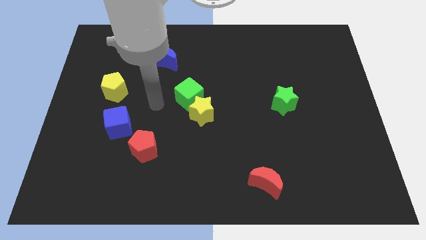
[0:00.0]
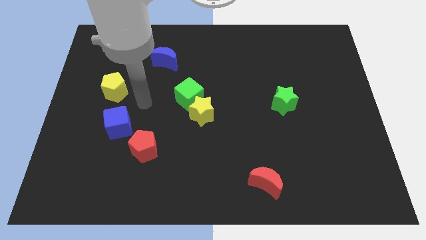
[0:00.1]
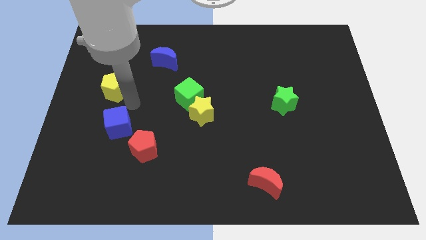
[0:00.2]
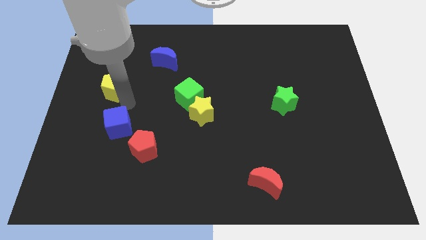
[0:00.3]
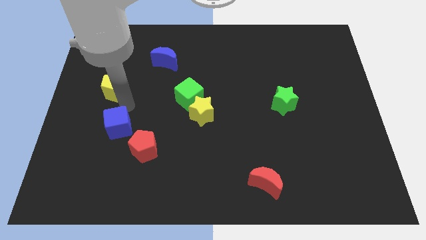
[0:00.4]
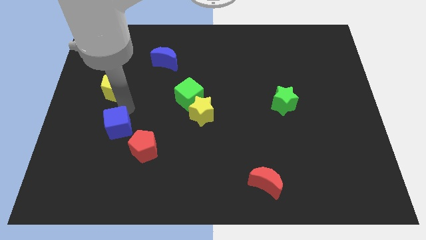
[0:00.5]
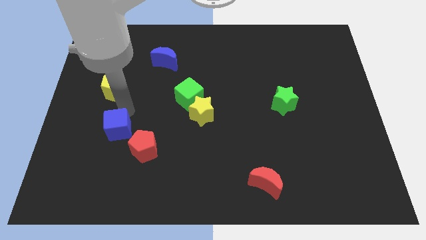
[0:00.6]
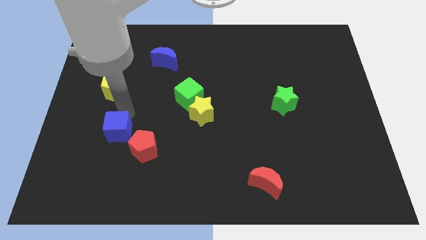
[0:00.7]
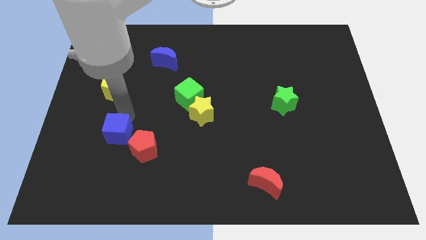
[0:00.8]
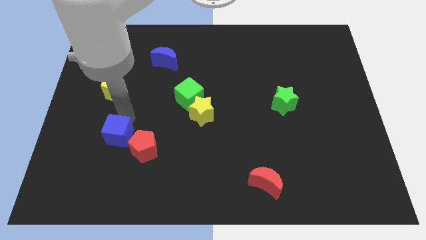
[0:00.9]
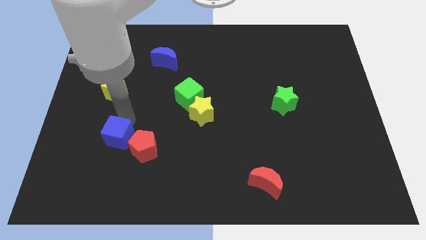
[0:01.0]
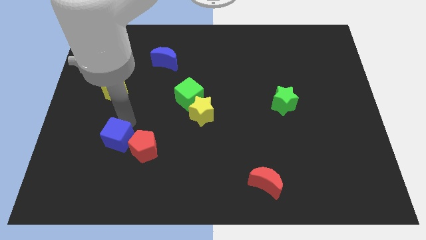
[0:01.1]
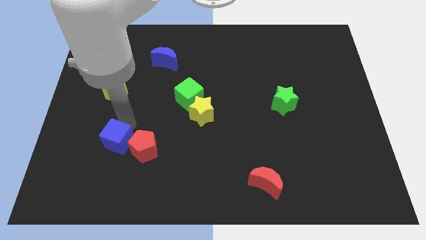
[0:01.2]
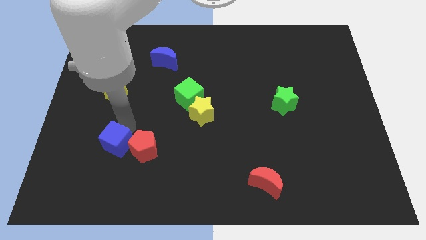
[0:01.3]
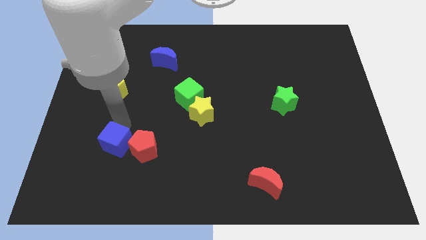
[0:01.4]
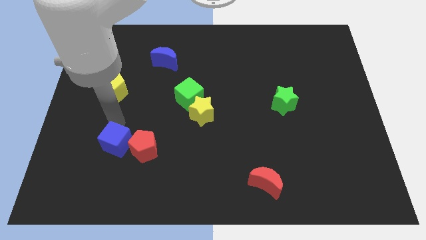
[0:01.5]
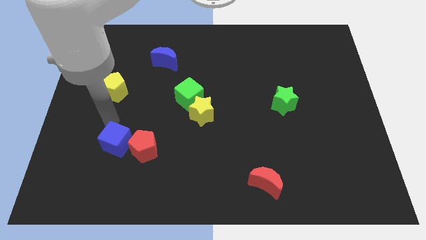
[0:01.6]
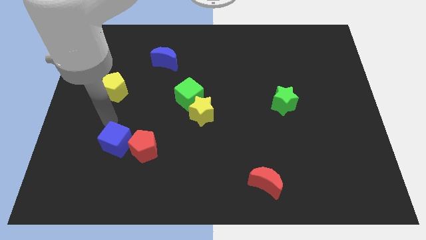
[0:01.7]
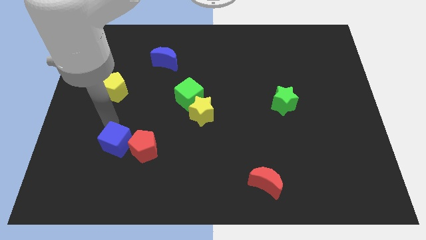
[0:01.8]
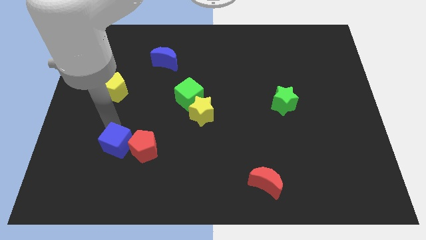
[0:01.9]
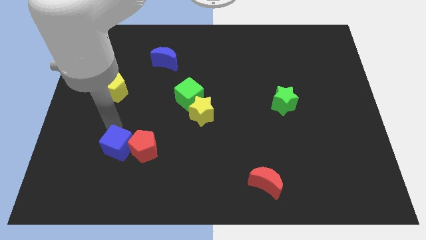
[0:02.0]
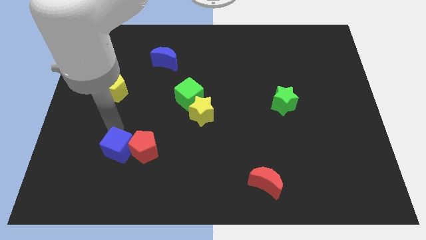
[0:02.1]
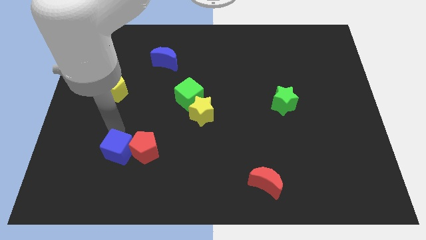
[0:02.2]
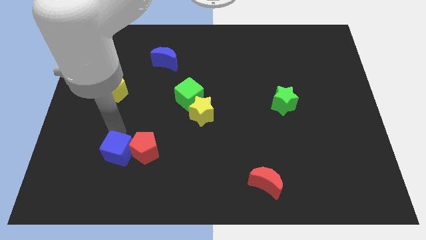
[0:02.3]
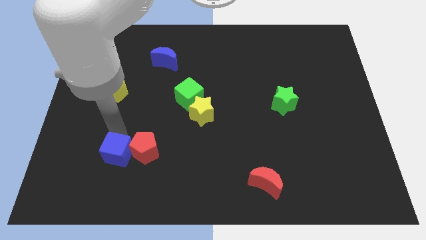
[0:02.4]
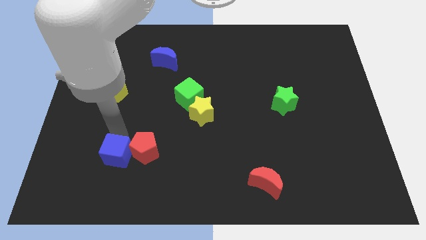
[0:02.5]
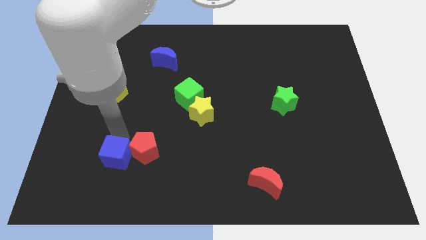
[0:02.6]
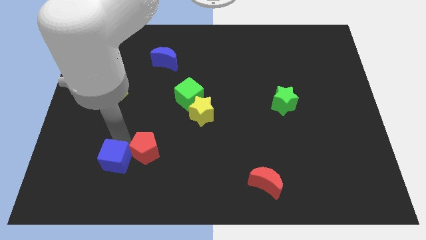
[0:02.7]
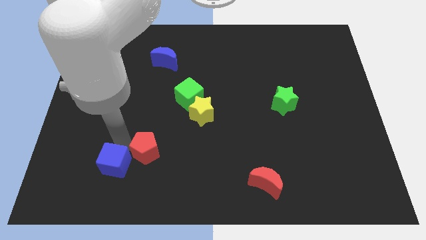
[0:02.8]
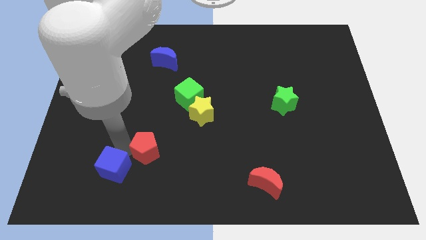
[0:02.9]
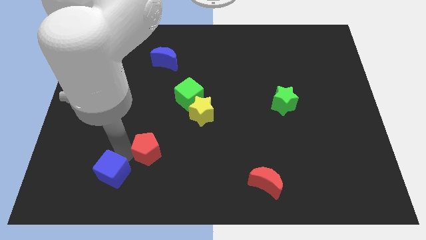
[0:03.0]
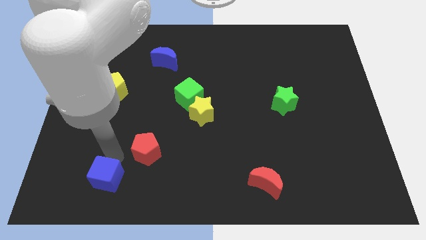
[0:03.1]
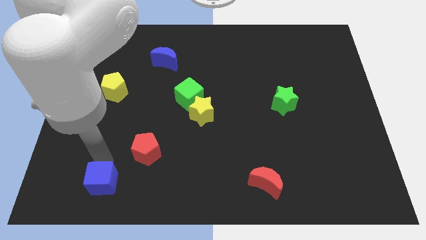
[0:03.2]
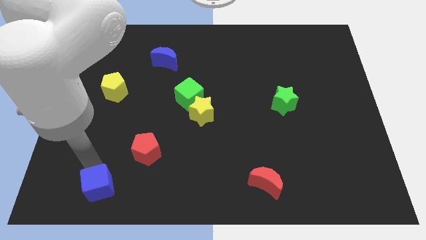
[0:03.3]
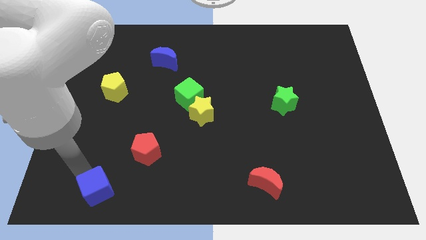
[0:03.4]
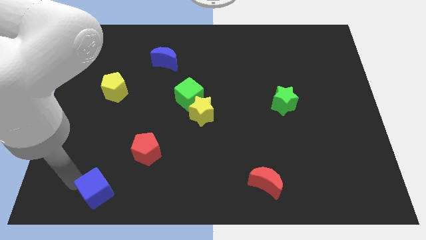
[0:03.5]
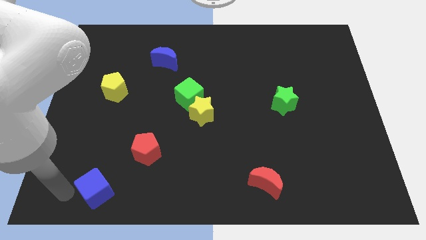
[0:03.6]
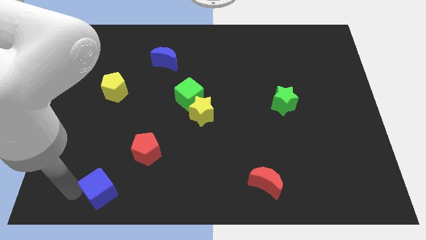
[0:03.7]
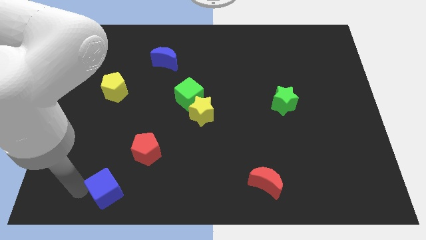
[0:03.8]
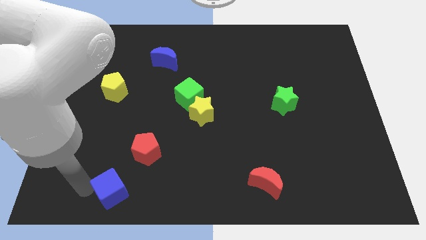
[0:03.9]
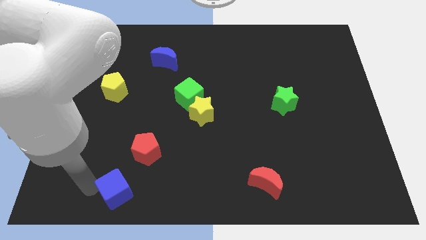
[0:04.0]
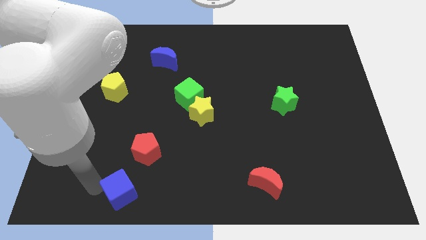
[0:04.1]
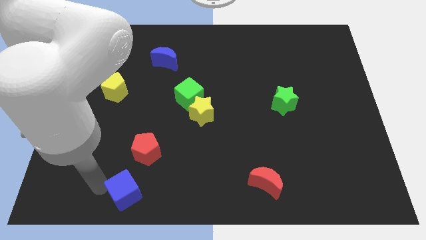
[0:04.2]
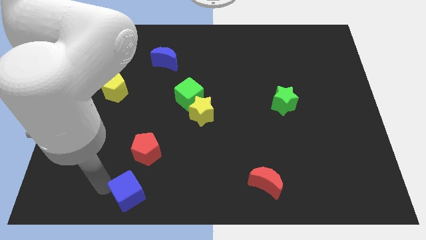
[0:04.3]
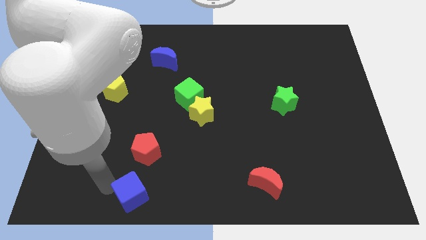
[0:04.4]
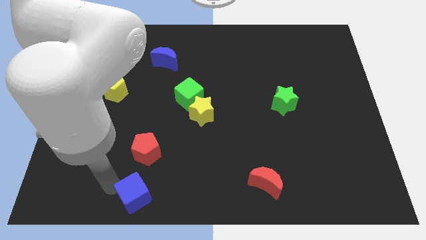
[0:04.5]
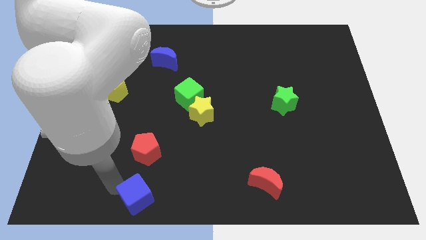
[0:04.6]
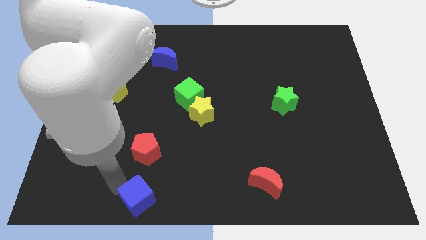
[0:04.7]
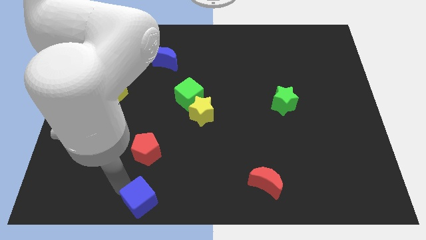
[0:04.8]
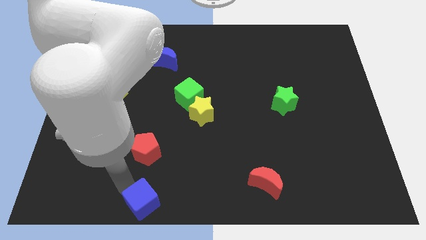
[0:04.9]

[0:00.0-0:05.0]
slide the blue cube to the bottom side

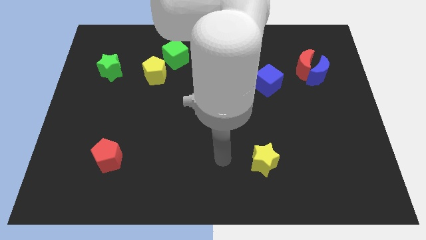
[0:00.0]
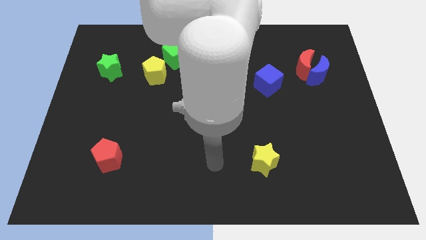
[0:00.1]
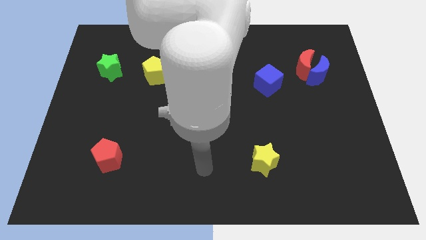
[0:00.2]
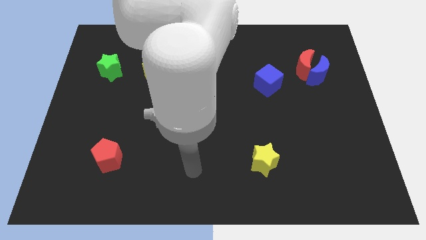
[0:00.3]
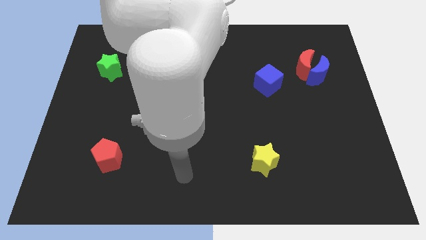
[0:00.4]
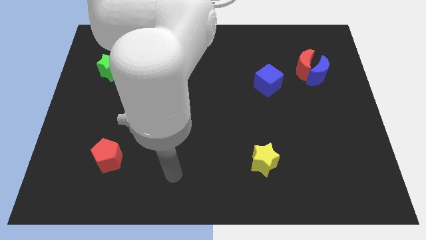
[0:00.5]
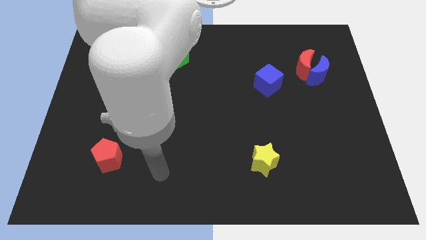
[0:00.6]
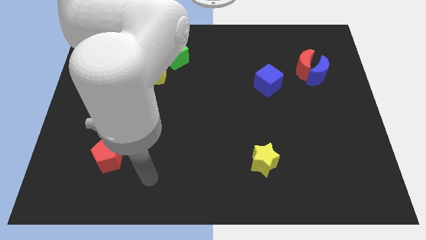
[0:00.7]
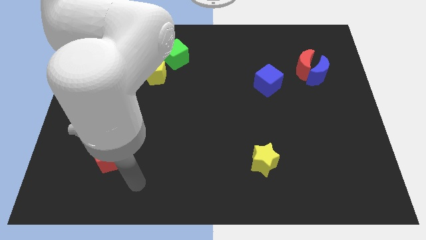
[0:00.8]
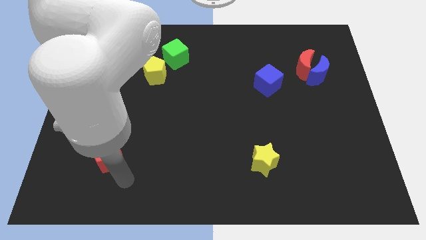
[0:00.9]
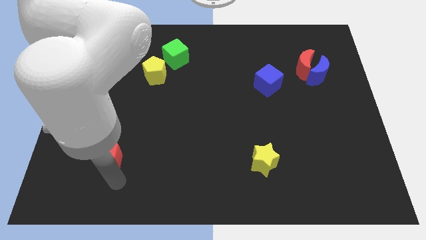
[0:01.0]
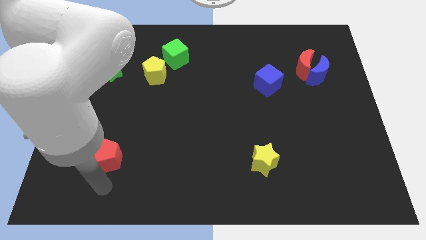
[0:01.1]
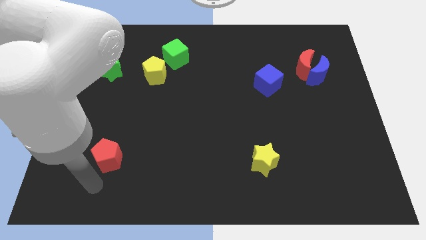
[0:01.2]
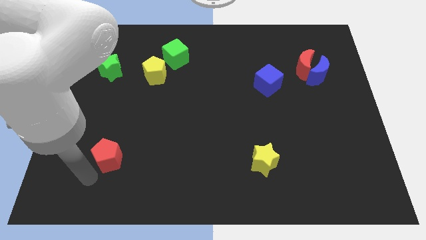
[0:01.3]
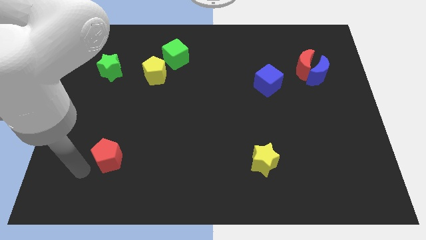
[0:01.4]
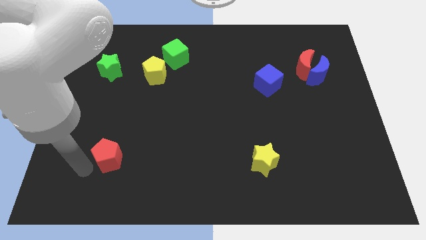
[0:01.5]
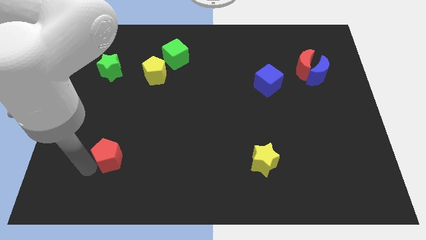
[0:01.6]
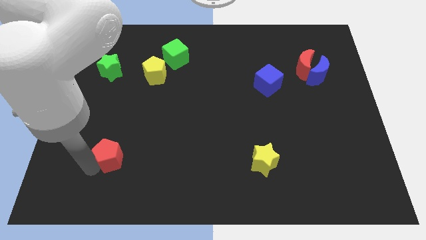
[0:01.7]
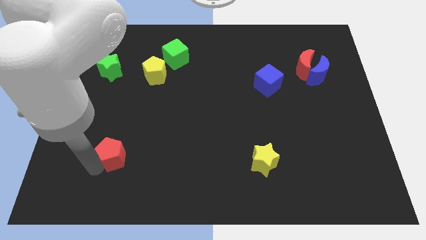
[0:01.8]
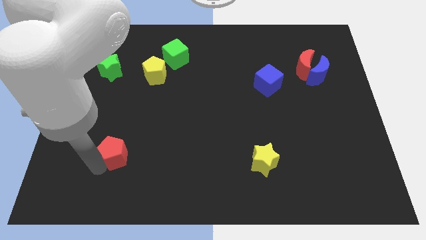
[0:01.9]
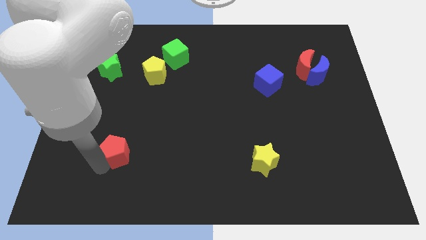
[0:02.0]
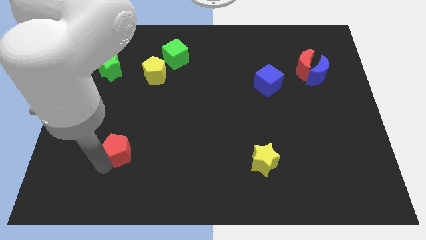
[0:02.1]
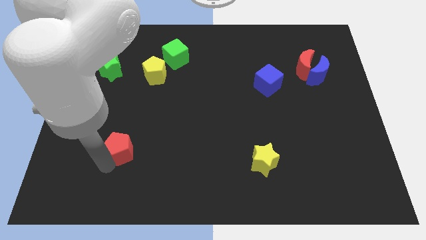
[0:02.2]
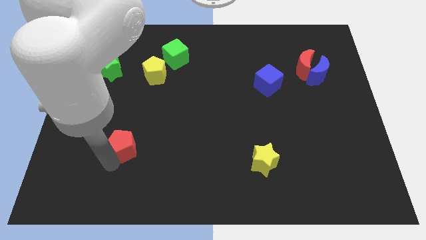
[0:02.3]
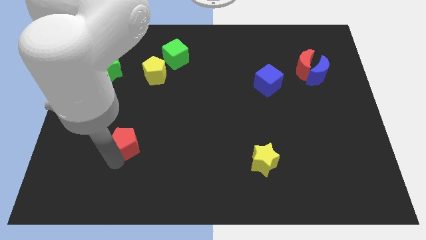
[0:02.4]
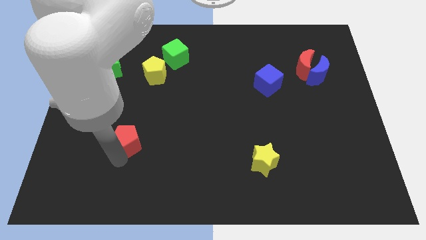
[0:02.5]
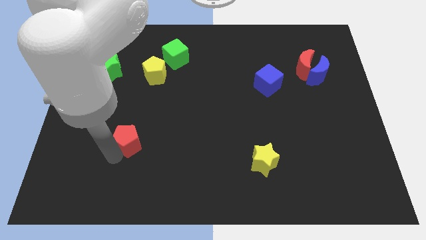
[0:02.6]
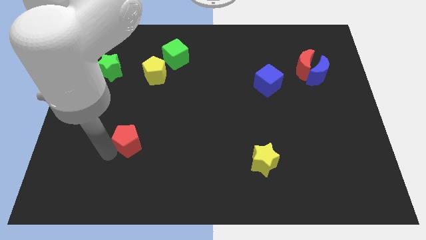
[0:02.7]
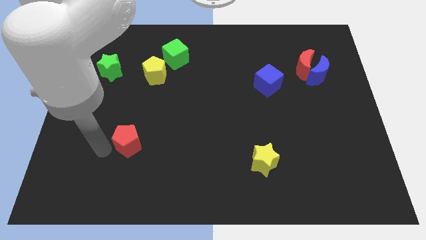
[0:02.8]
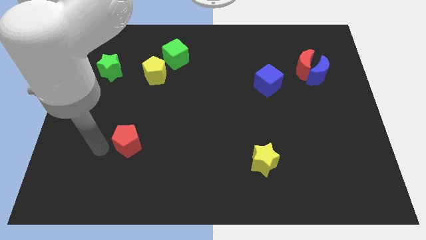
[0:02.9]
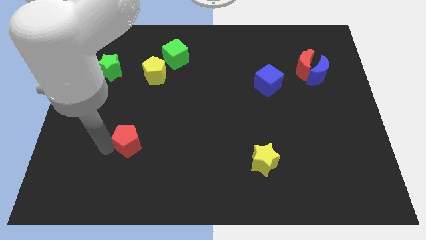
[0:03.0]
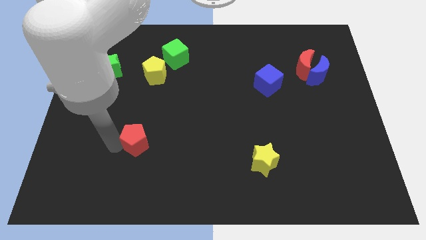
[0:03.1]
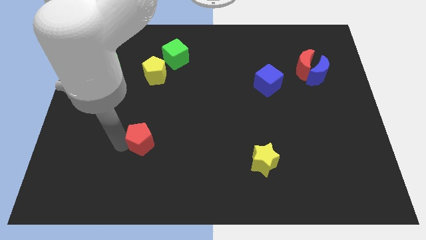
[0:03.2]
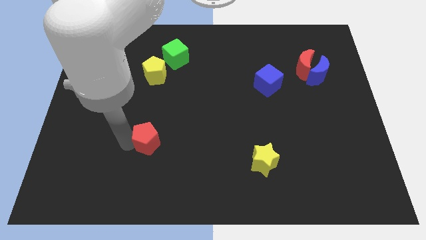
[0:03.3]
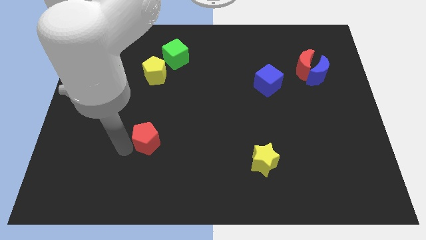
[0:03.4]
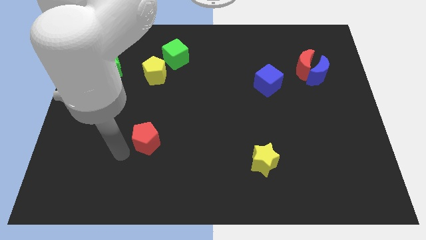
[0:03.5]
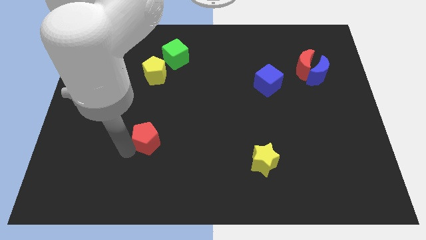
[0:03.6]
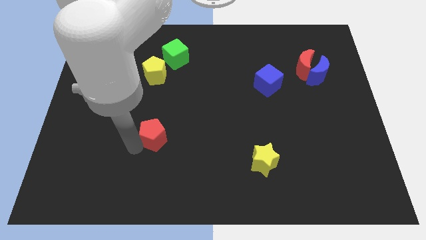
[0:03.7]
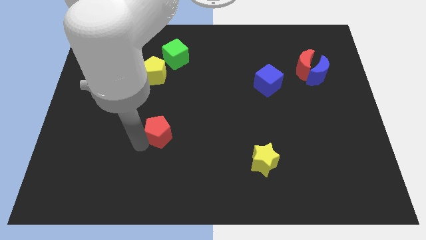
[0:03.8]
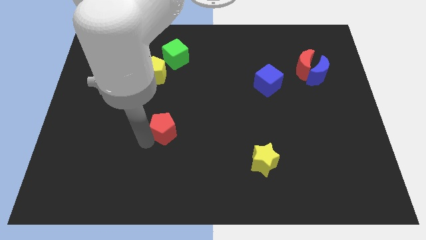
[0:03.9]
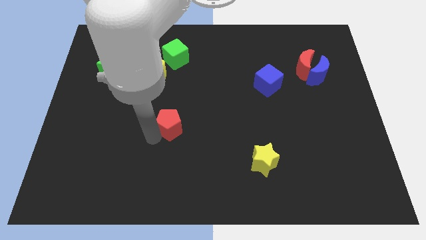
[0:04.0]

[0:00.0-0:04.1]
slide the red pentagon to the middle of the board
